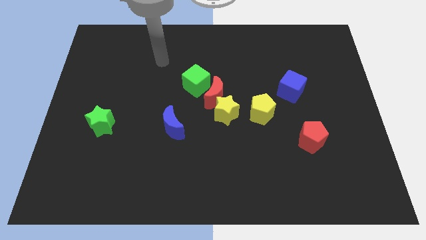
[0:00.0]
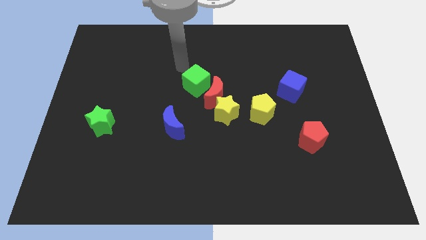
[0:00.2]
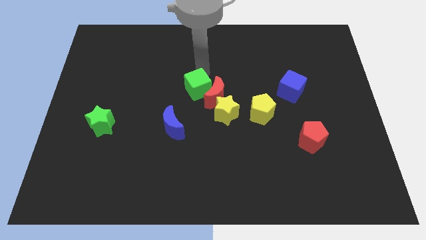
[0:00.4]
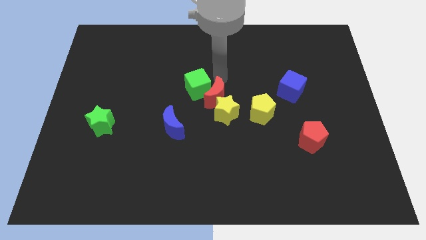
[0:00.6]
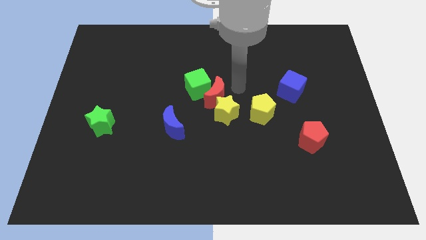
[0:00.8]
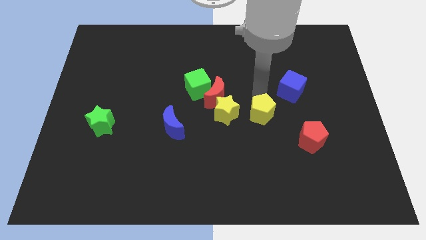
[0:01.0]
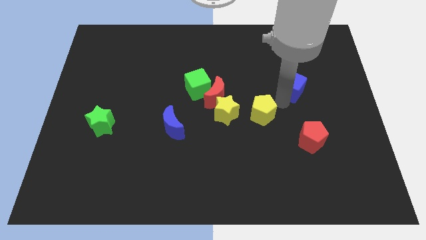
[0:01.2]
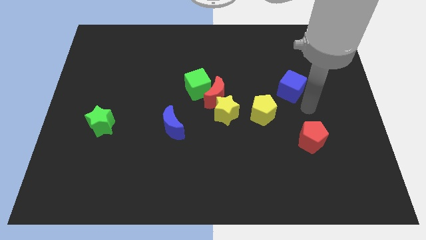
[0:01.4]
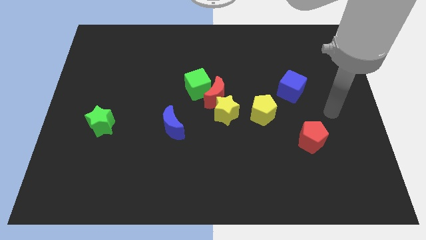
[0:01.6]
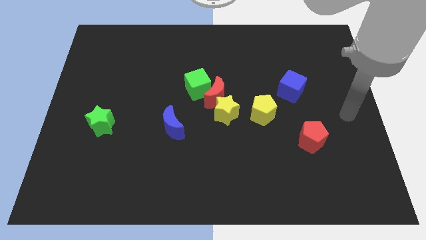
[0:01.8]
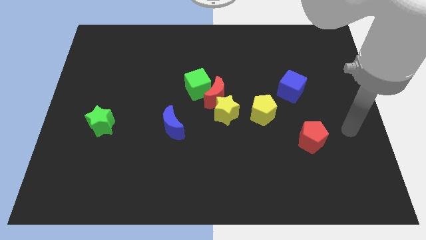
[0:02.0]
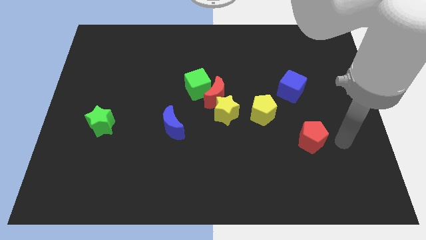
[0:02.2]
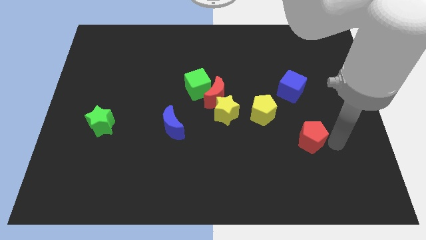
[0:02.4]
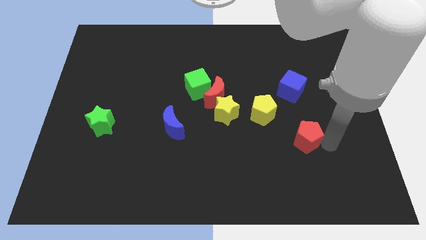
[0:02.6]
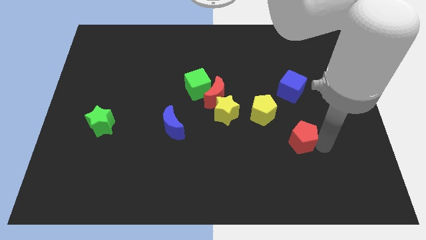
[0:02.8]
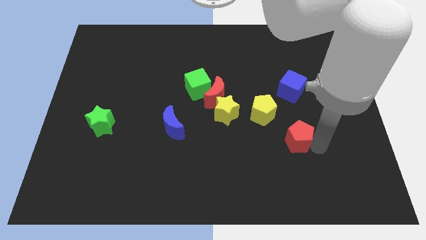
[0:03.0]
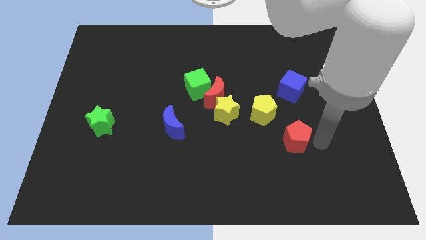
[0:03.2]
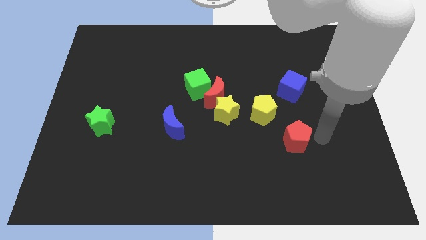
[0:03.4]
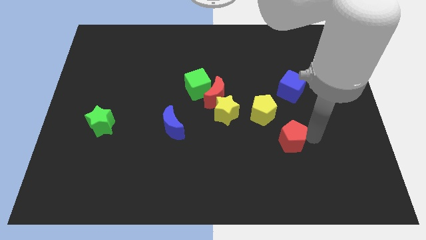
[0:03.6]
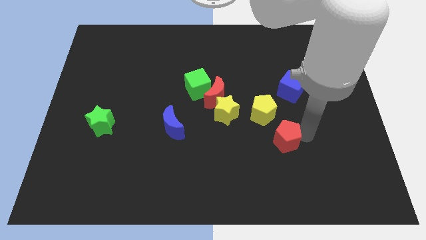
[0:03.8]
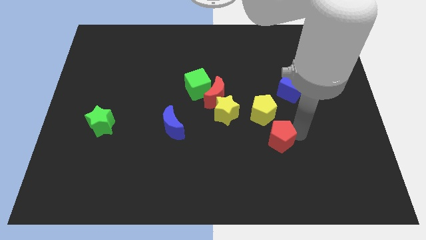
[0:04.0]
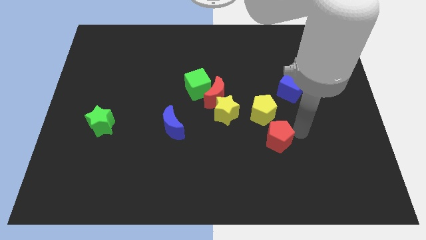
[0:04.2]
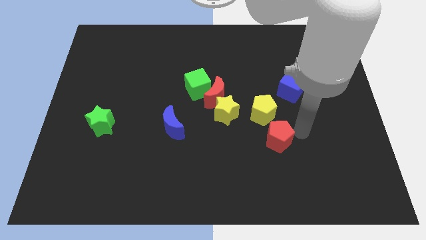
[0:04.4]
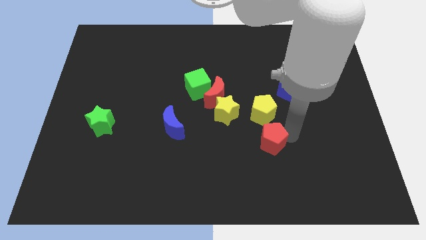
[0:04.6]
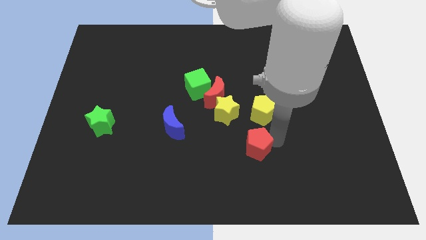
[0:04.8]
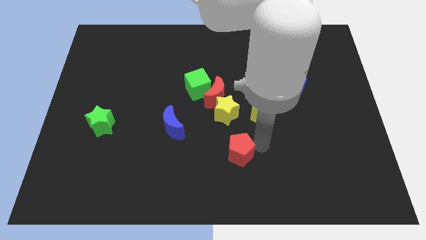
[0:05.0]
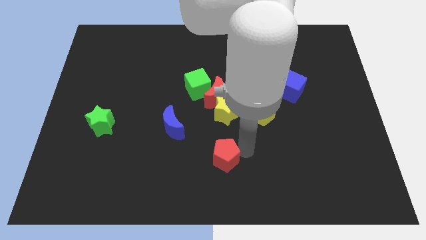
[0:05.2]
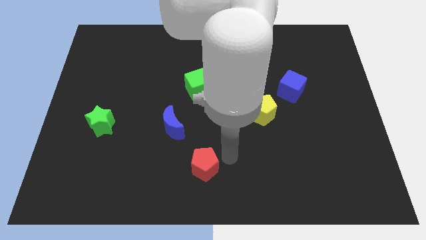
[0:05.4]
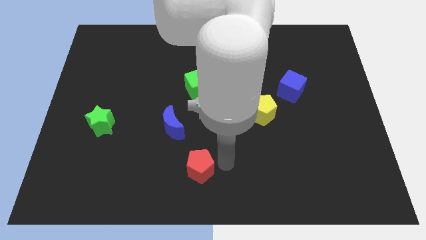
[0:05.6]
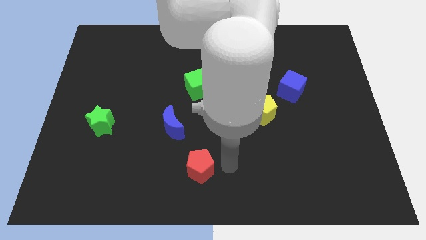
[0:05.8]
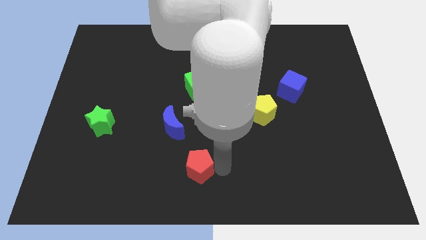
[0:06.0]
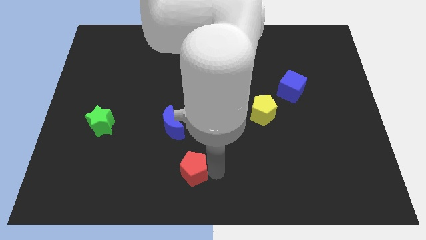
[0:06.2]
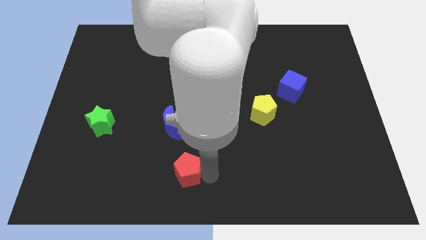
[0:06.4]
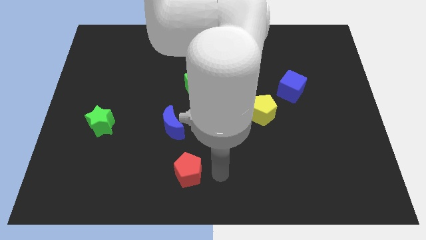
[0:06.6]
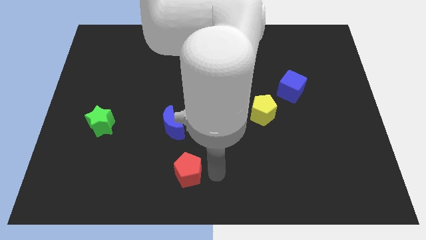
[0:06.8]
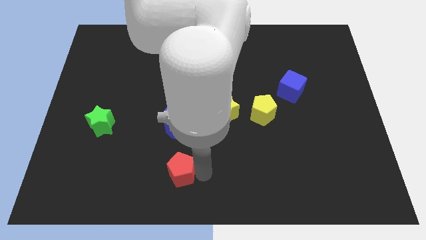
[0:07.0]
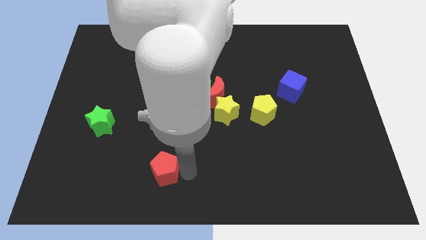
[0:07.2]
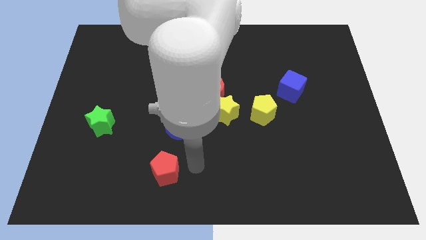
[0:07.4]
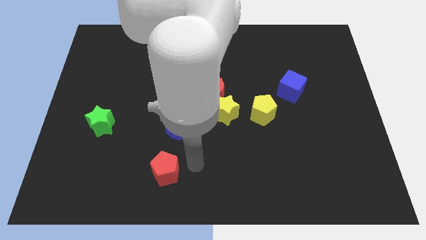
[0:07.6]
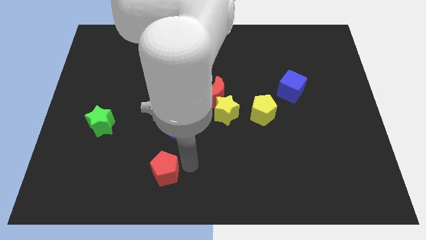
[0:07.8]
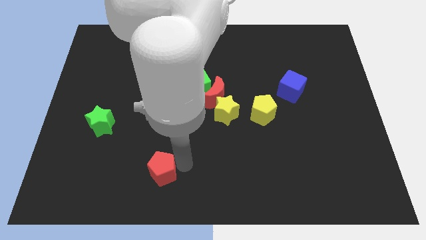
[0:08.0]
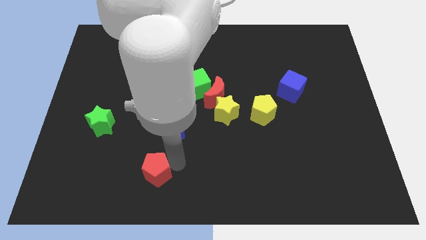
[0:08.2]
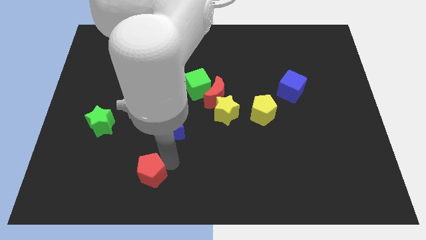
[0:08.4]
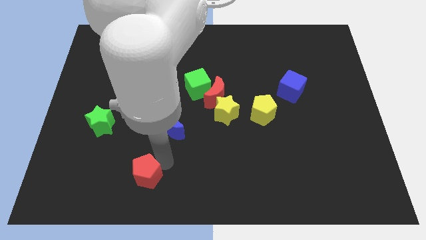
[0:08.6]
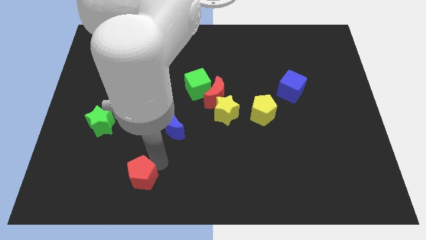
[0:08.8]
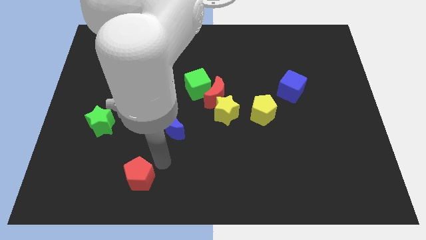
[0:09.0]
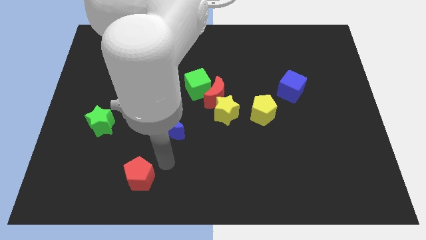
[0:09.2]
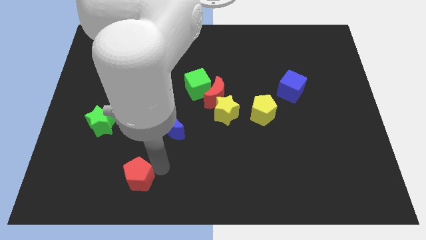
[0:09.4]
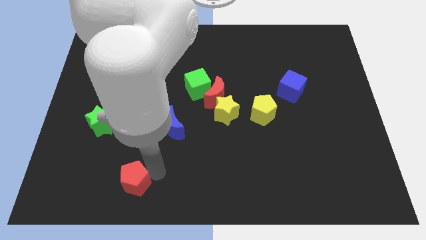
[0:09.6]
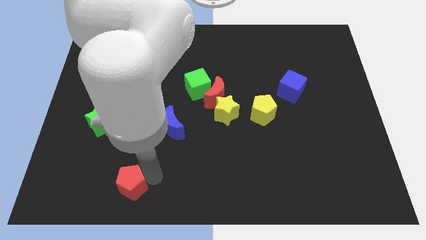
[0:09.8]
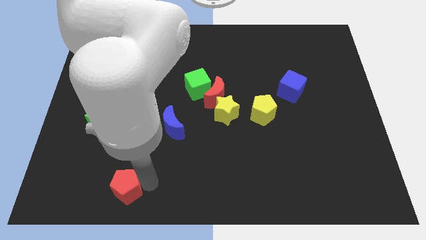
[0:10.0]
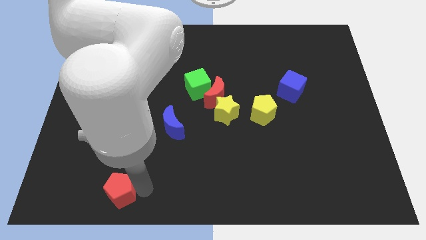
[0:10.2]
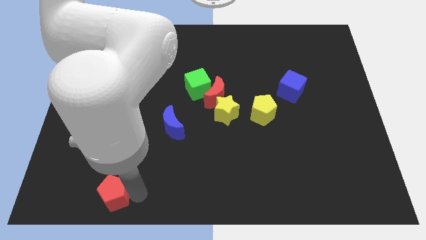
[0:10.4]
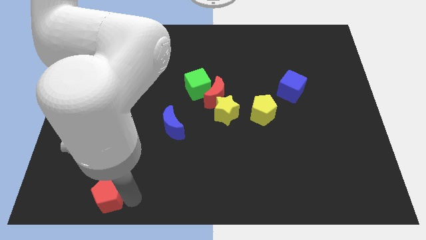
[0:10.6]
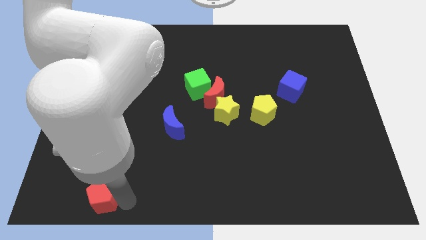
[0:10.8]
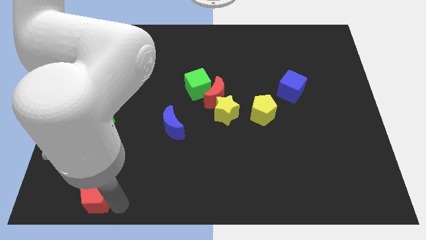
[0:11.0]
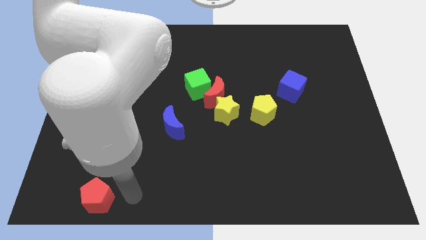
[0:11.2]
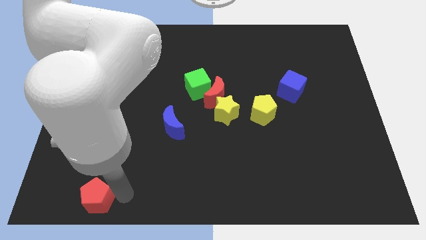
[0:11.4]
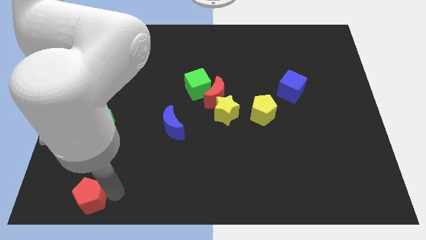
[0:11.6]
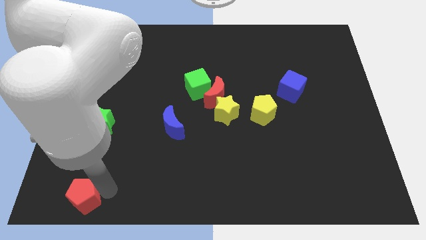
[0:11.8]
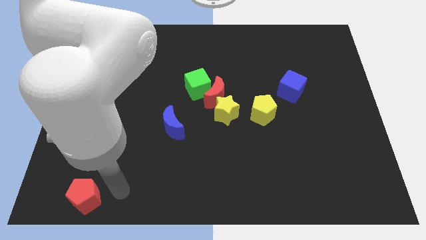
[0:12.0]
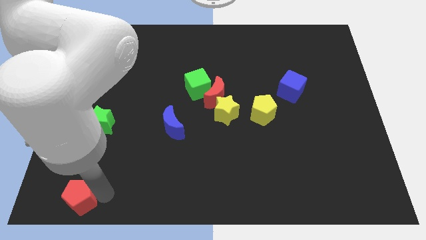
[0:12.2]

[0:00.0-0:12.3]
put the red pentagon to the bottom left corner

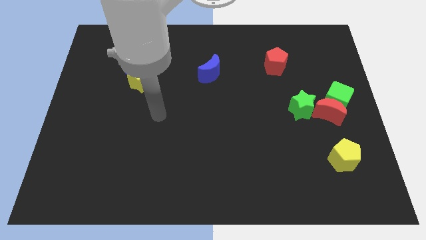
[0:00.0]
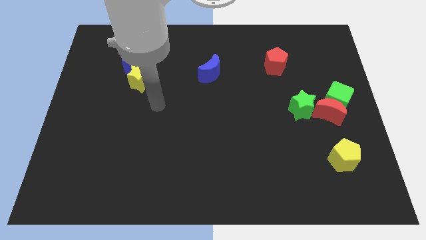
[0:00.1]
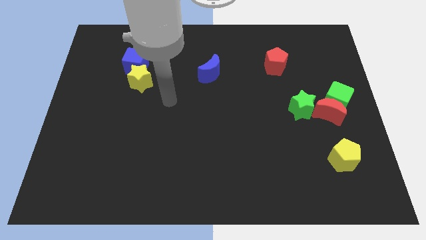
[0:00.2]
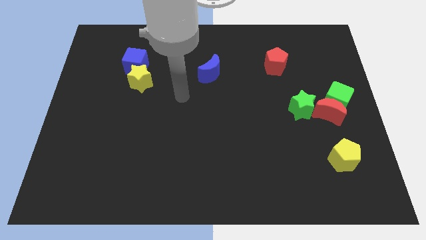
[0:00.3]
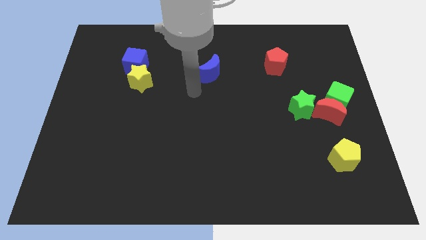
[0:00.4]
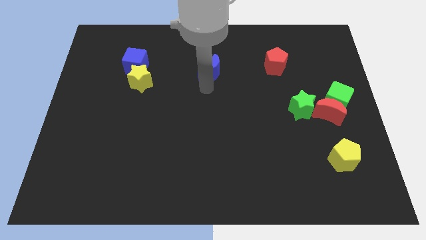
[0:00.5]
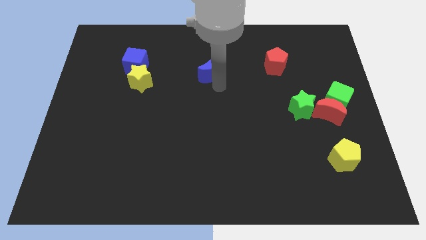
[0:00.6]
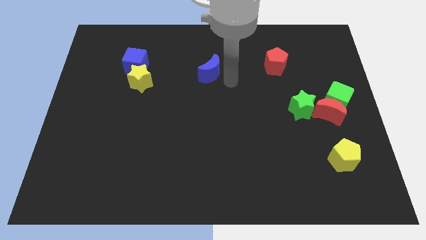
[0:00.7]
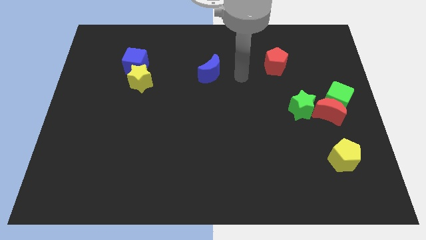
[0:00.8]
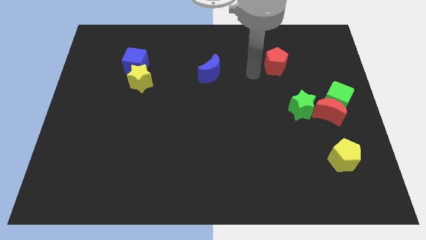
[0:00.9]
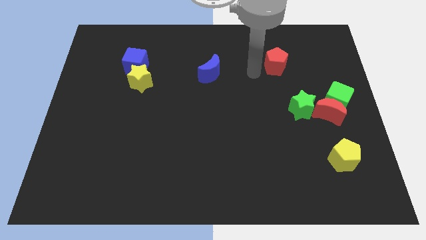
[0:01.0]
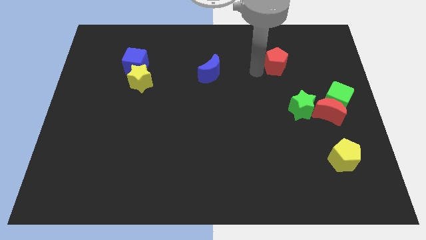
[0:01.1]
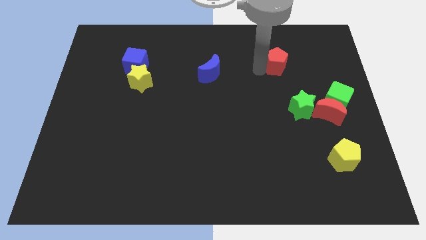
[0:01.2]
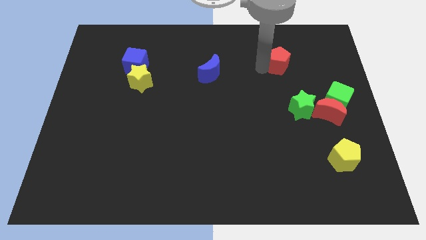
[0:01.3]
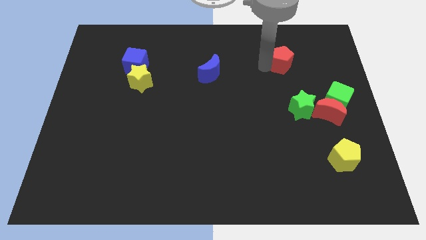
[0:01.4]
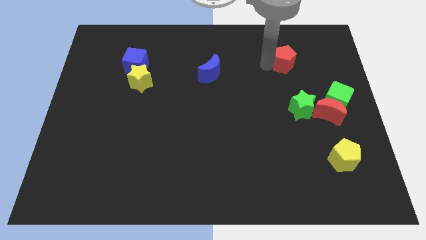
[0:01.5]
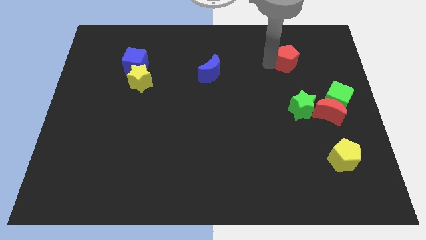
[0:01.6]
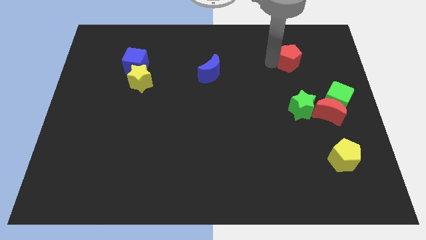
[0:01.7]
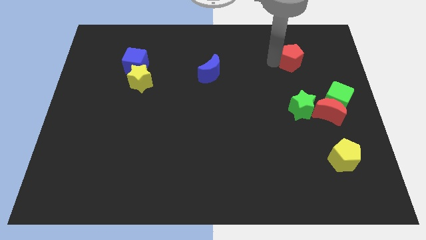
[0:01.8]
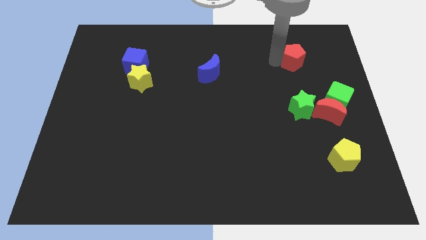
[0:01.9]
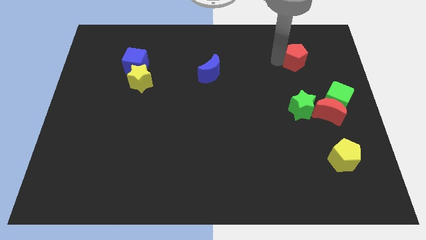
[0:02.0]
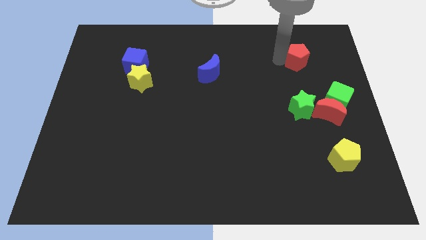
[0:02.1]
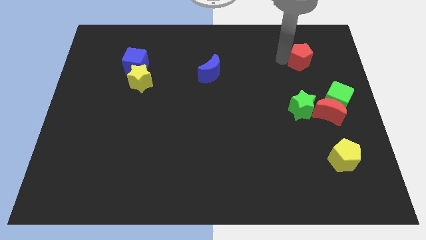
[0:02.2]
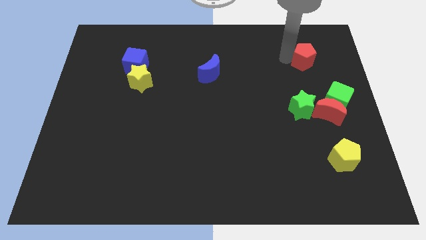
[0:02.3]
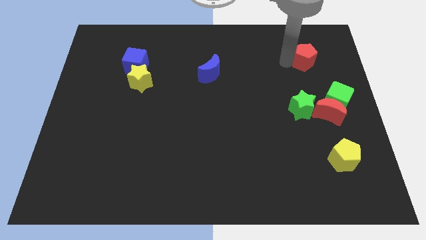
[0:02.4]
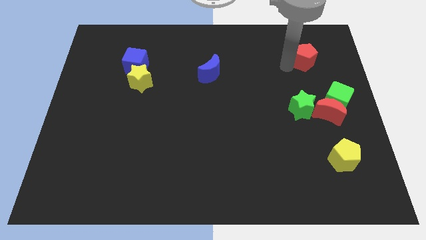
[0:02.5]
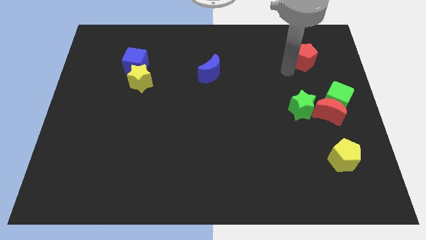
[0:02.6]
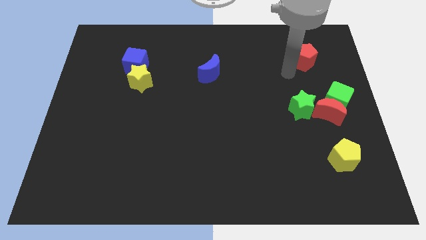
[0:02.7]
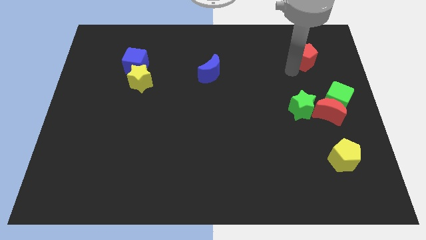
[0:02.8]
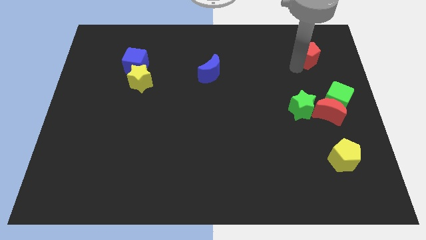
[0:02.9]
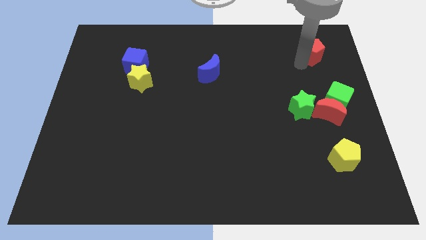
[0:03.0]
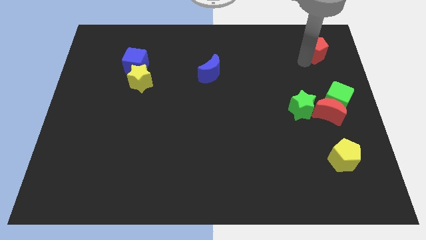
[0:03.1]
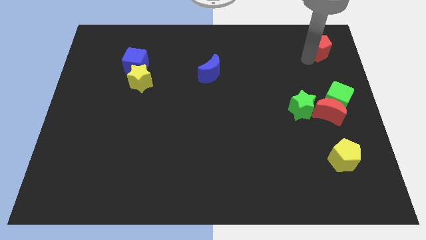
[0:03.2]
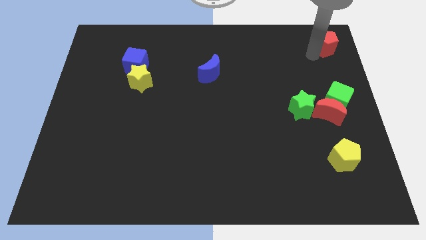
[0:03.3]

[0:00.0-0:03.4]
move the red pentagon to the top right corner
